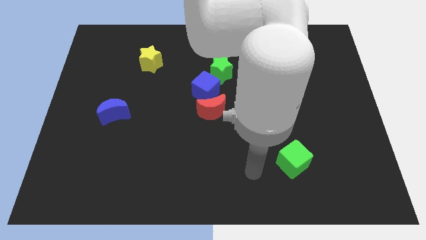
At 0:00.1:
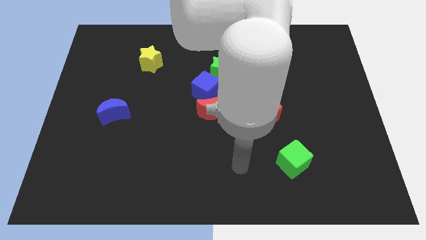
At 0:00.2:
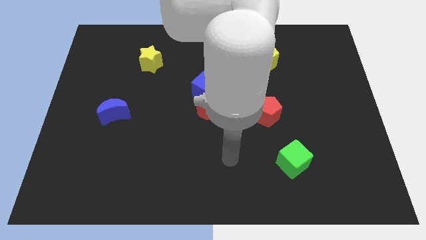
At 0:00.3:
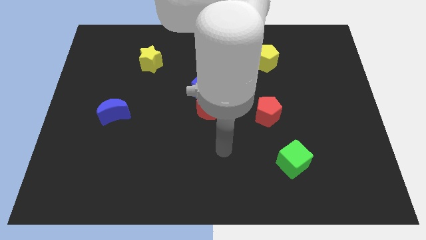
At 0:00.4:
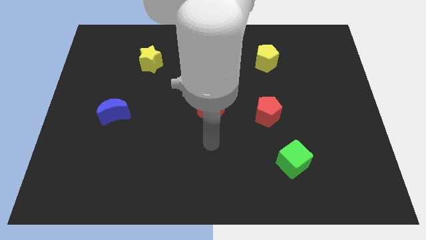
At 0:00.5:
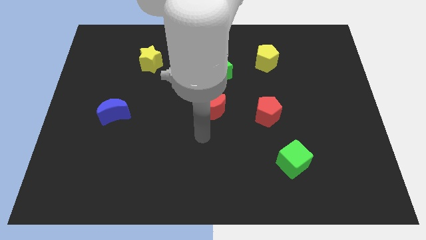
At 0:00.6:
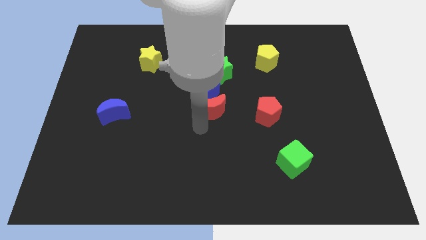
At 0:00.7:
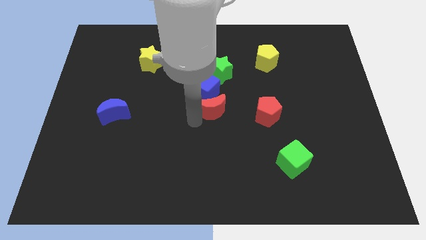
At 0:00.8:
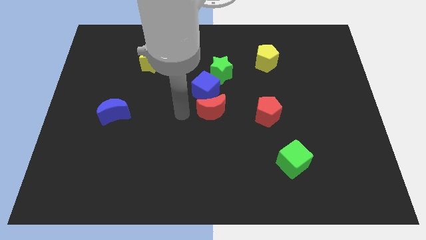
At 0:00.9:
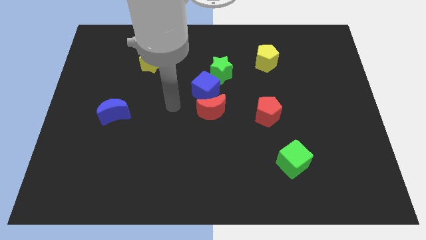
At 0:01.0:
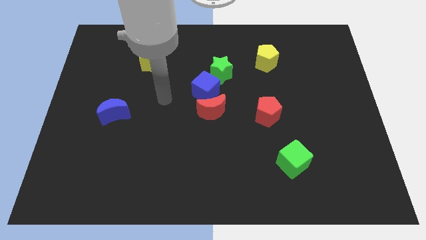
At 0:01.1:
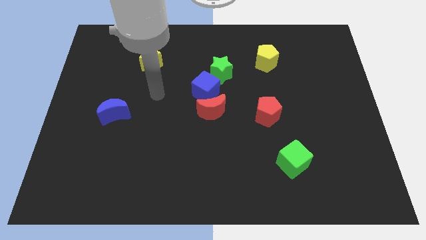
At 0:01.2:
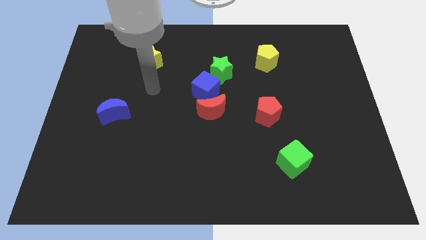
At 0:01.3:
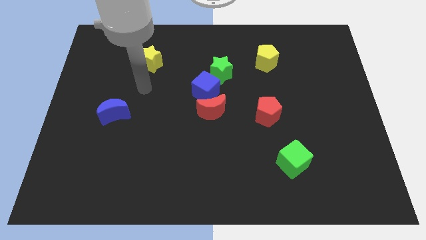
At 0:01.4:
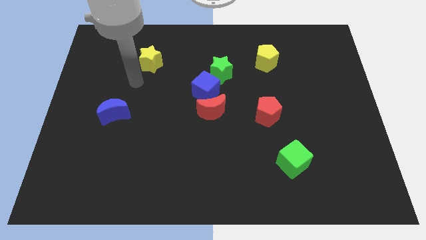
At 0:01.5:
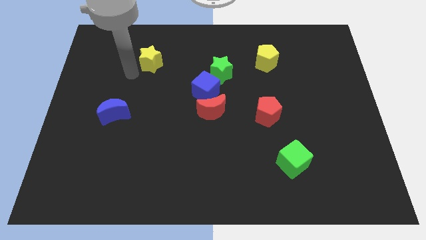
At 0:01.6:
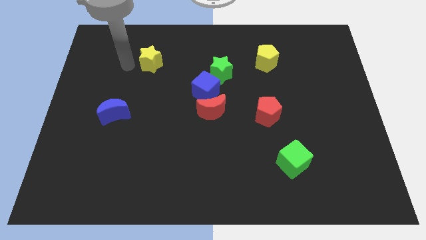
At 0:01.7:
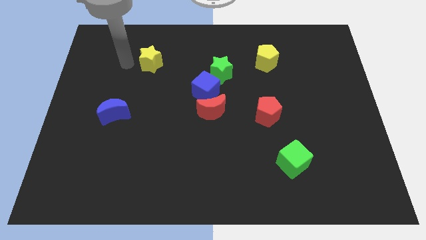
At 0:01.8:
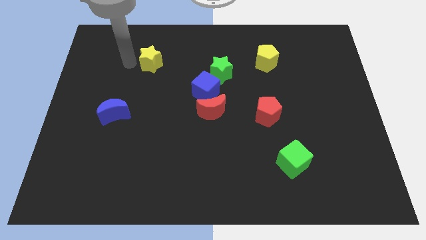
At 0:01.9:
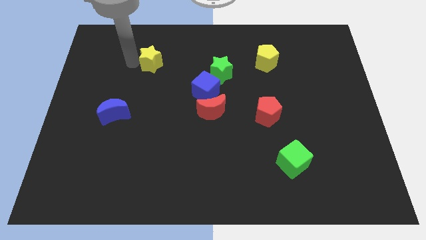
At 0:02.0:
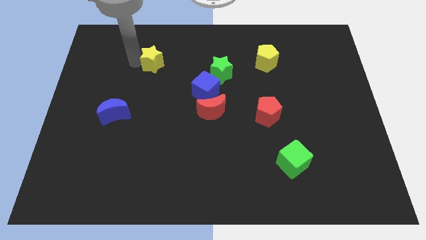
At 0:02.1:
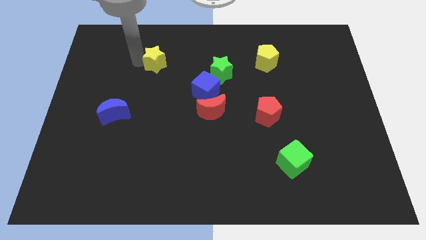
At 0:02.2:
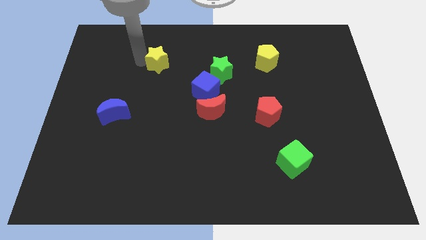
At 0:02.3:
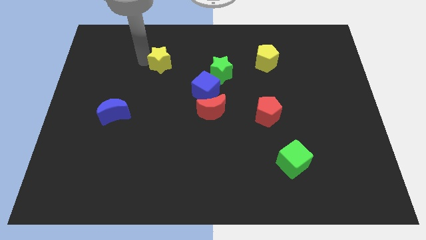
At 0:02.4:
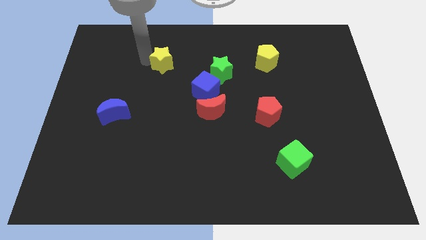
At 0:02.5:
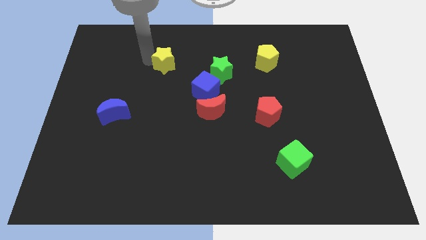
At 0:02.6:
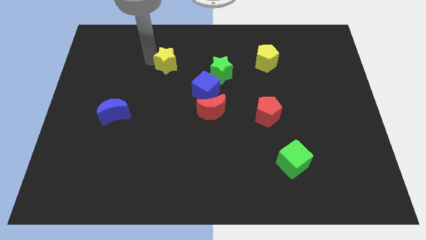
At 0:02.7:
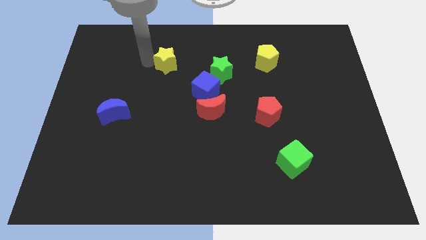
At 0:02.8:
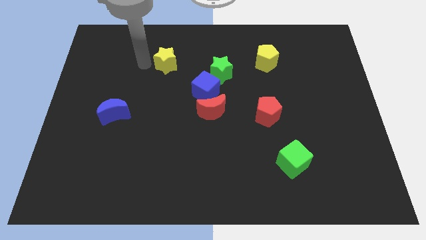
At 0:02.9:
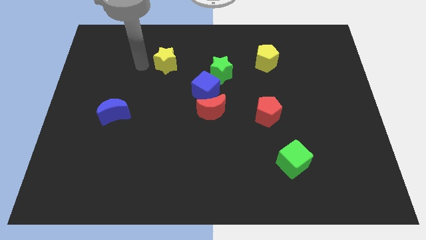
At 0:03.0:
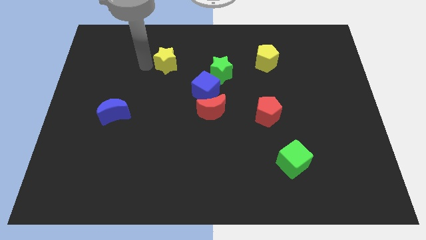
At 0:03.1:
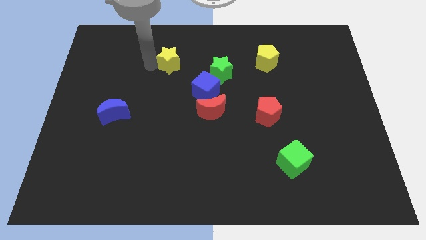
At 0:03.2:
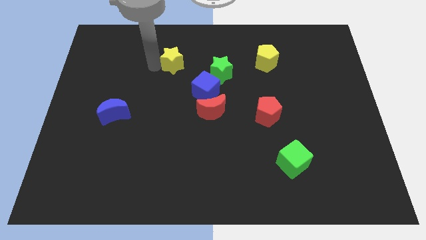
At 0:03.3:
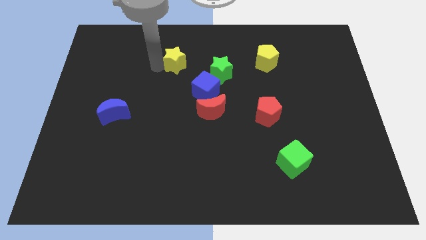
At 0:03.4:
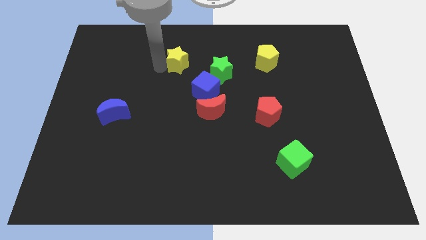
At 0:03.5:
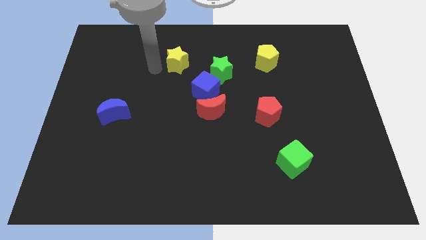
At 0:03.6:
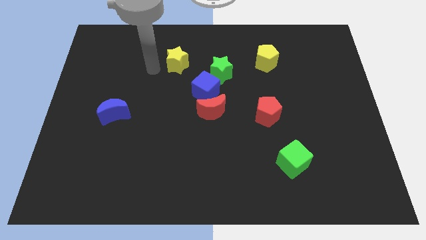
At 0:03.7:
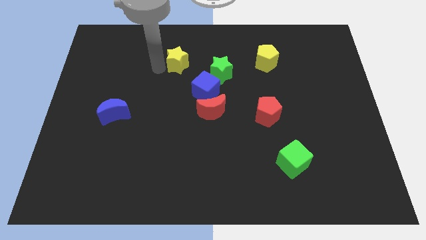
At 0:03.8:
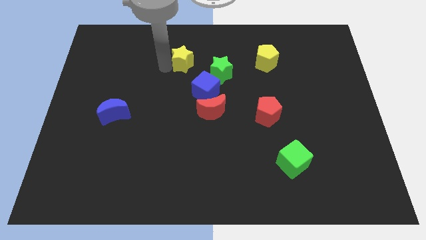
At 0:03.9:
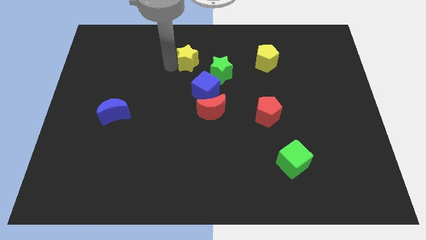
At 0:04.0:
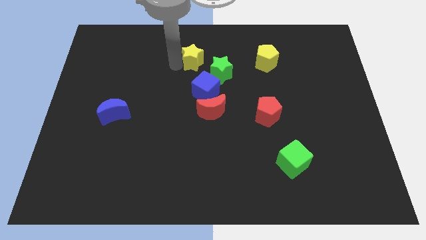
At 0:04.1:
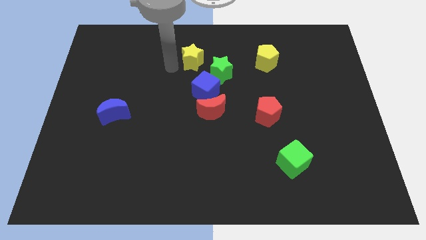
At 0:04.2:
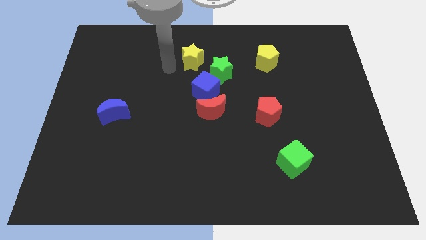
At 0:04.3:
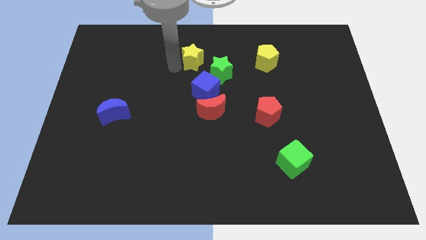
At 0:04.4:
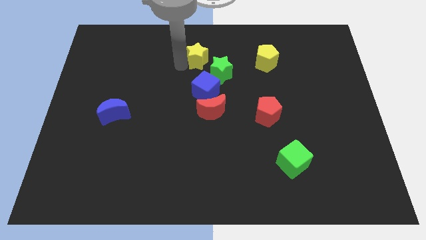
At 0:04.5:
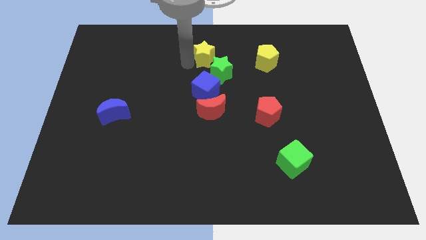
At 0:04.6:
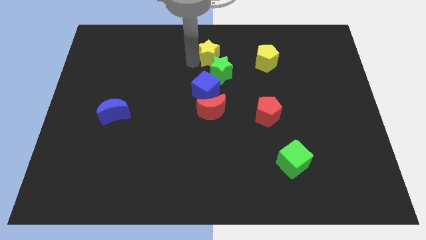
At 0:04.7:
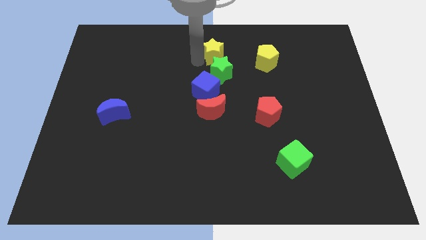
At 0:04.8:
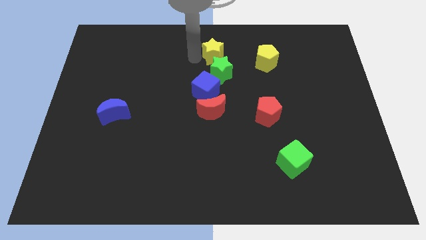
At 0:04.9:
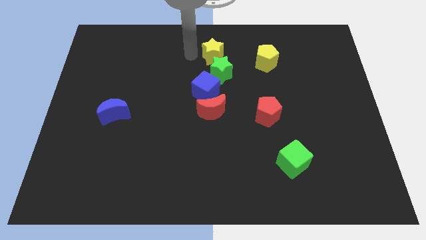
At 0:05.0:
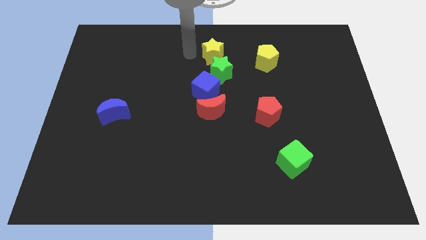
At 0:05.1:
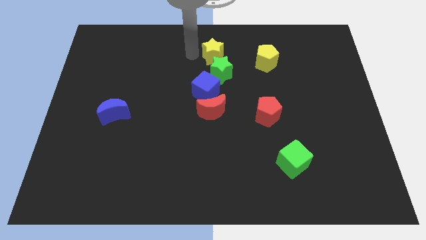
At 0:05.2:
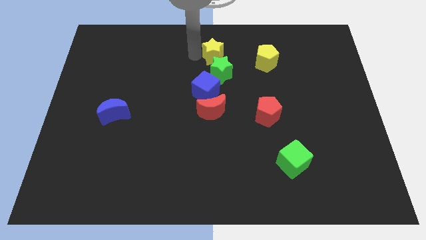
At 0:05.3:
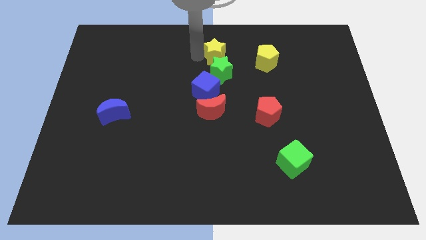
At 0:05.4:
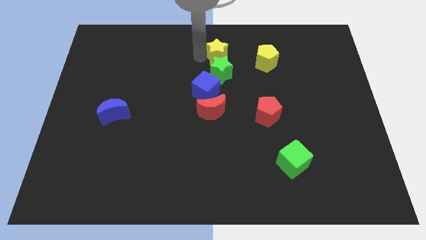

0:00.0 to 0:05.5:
put the yellow star to the top right side of the green star

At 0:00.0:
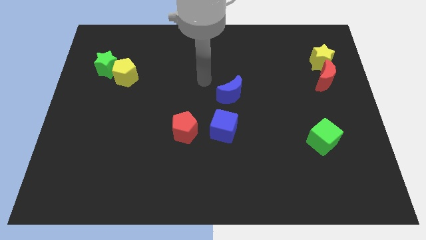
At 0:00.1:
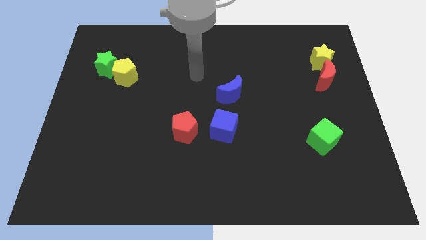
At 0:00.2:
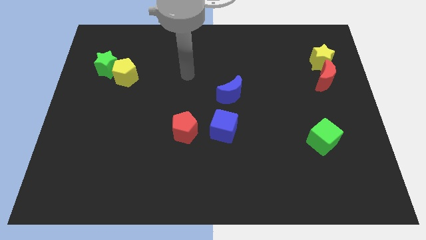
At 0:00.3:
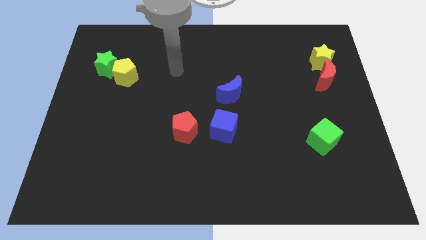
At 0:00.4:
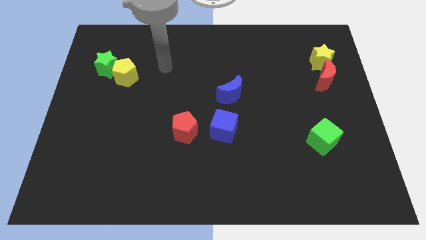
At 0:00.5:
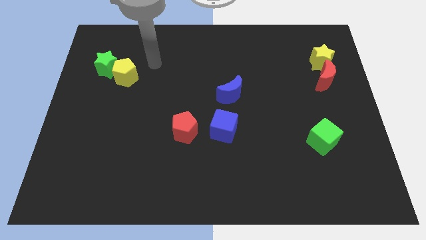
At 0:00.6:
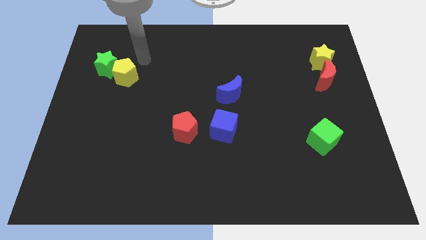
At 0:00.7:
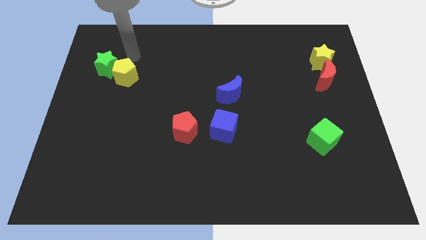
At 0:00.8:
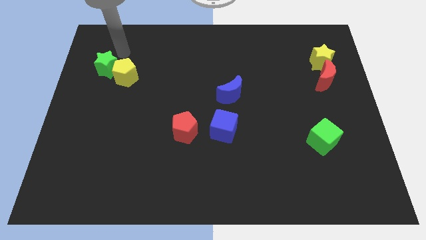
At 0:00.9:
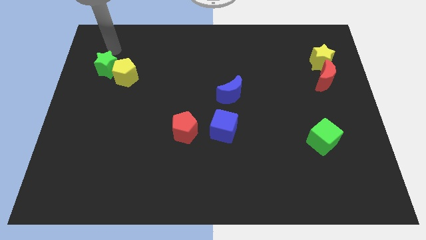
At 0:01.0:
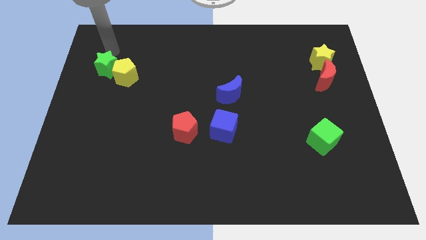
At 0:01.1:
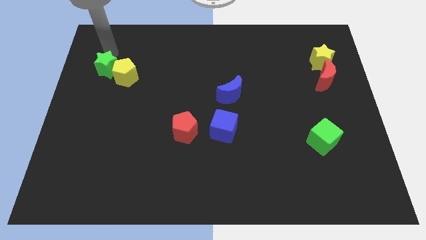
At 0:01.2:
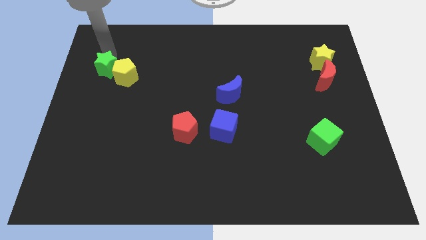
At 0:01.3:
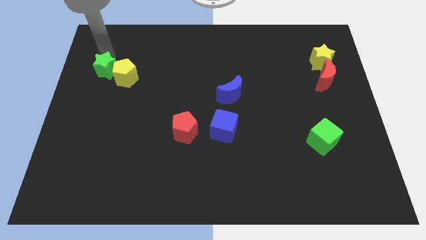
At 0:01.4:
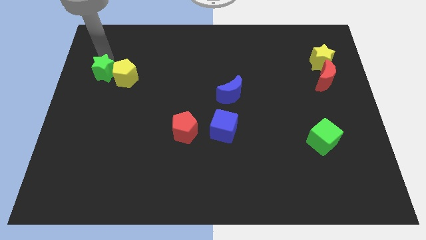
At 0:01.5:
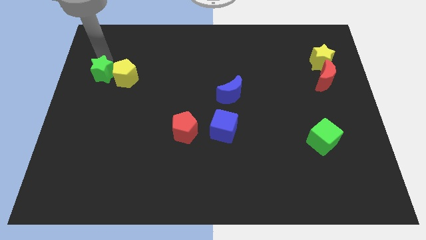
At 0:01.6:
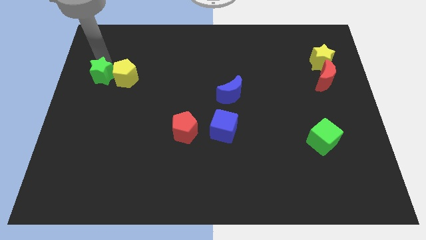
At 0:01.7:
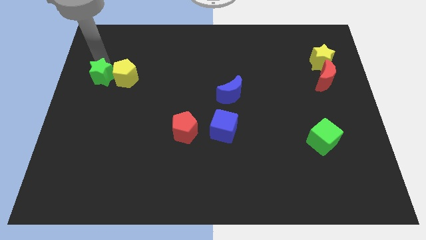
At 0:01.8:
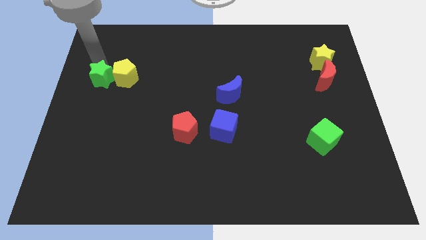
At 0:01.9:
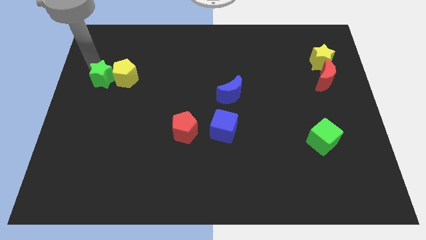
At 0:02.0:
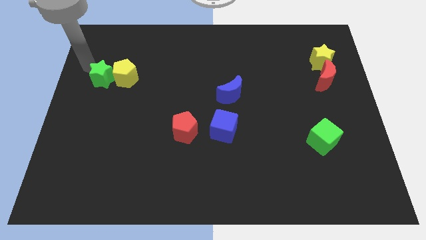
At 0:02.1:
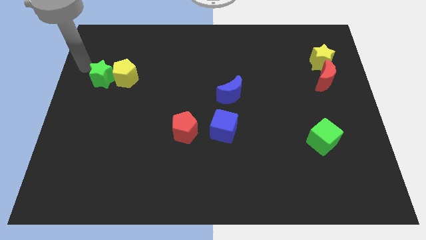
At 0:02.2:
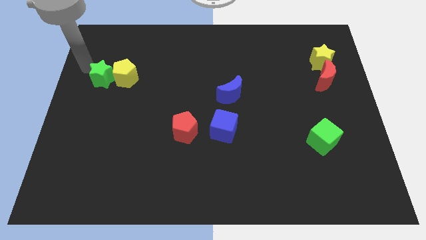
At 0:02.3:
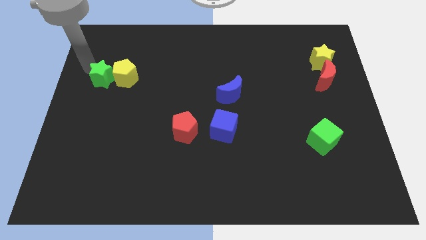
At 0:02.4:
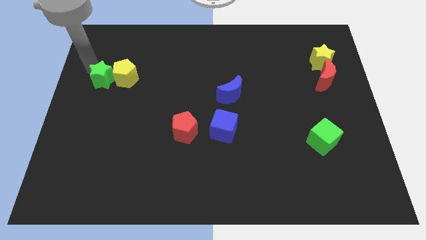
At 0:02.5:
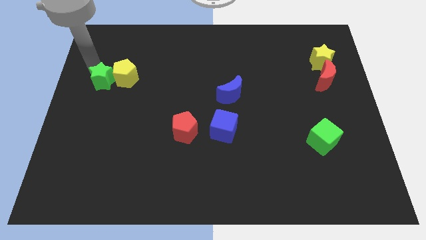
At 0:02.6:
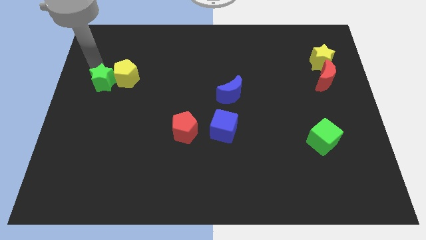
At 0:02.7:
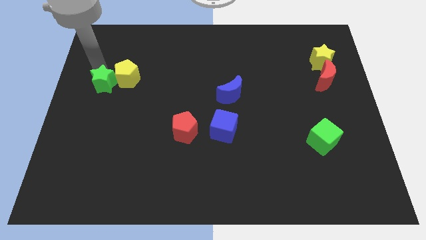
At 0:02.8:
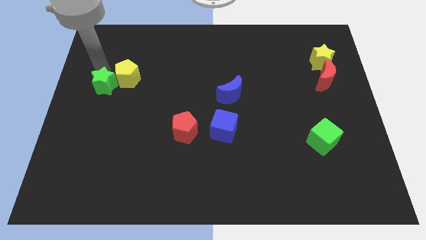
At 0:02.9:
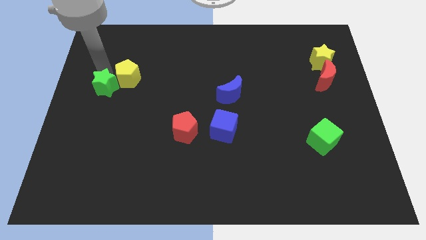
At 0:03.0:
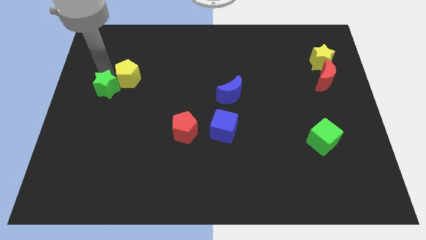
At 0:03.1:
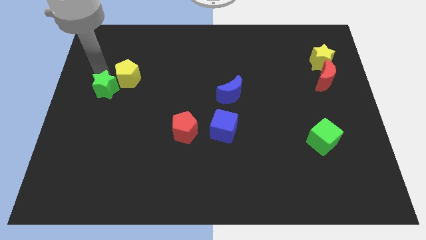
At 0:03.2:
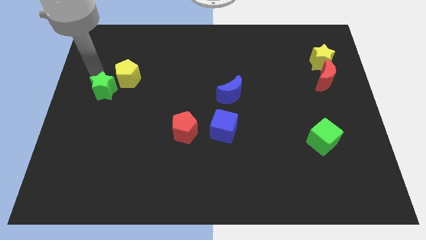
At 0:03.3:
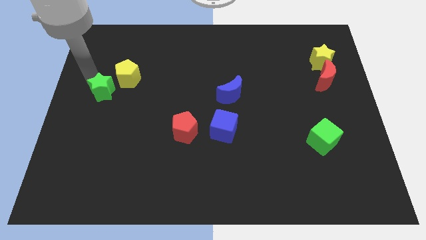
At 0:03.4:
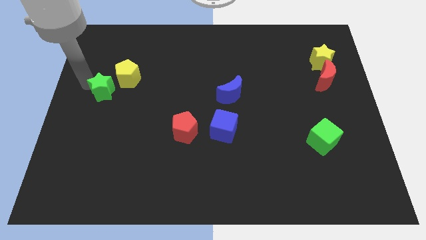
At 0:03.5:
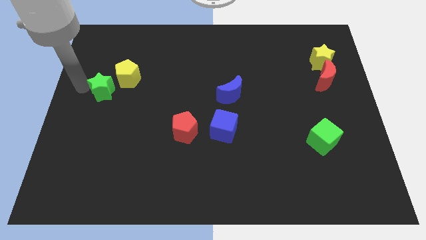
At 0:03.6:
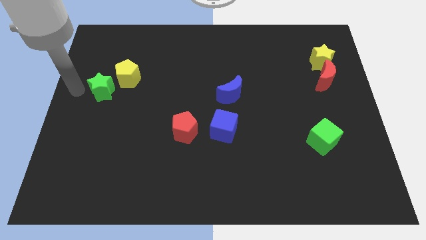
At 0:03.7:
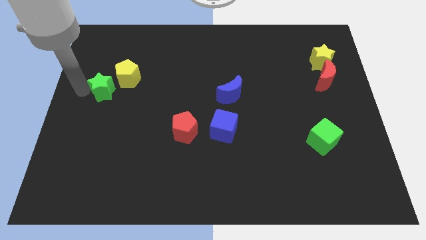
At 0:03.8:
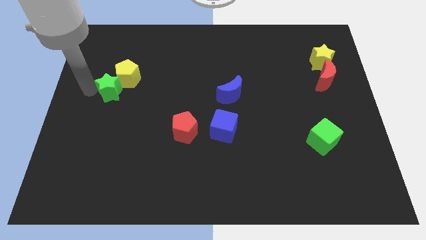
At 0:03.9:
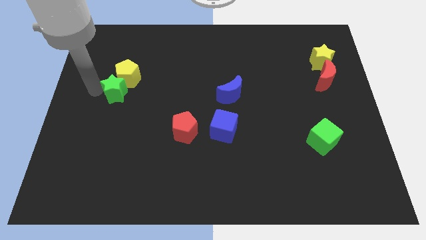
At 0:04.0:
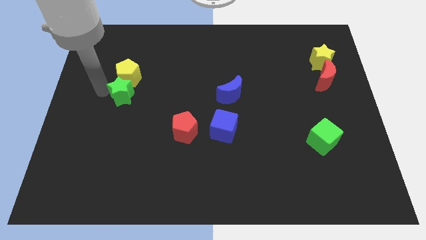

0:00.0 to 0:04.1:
put the green star to the bottom right of the yellow pentagon
